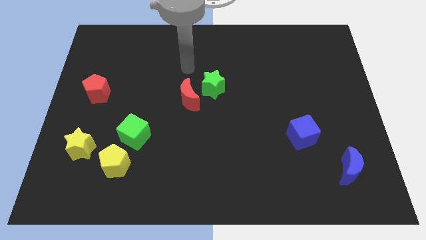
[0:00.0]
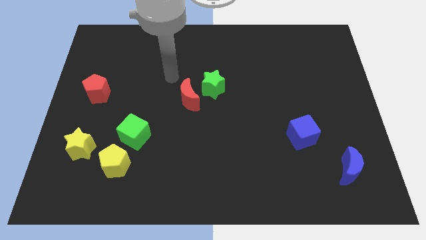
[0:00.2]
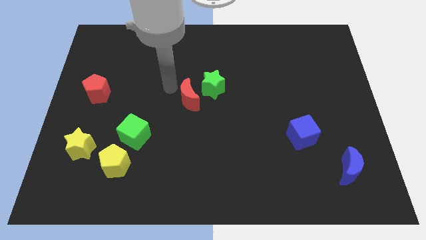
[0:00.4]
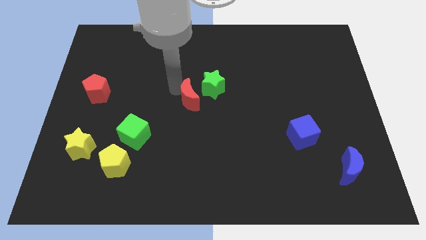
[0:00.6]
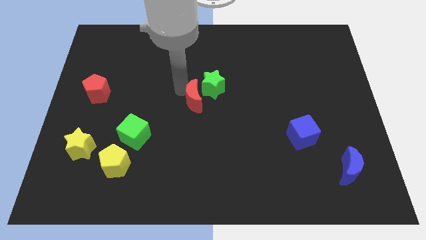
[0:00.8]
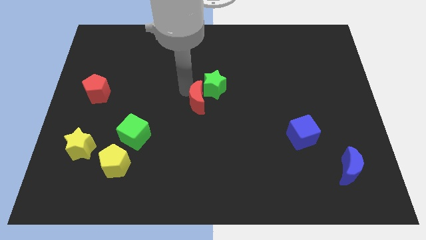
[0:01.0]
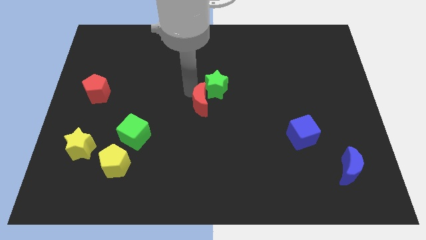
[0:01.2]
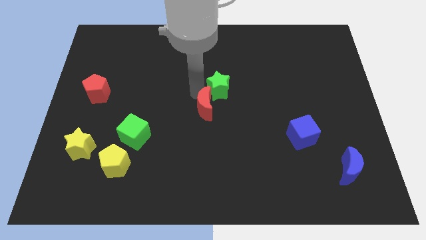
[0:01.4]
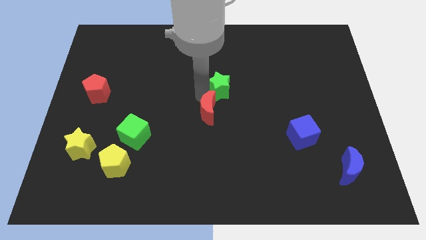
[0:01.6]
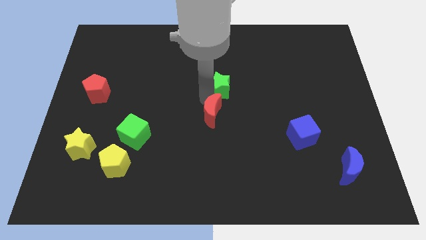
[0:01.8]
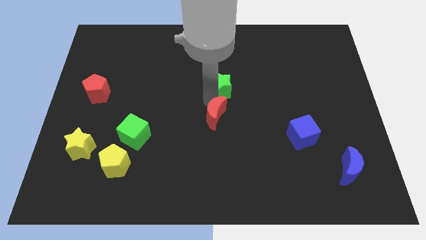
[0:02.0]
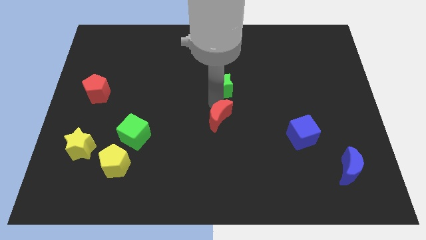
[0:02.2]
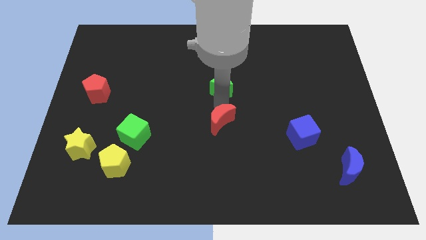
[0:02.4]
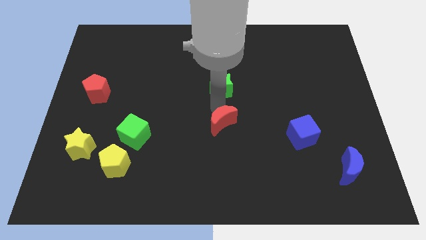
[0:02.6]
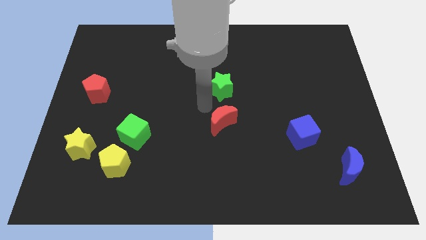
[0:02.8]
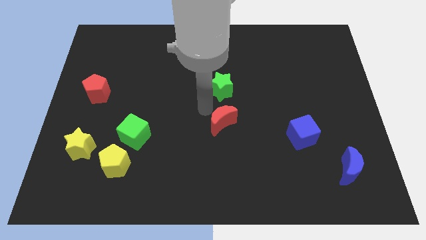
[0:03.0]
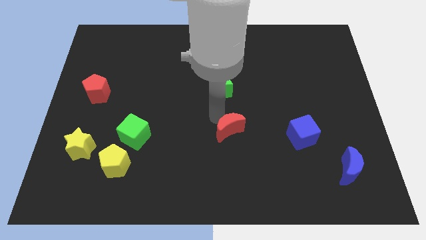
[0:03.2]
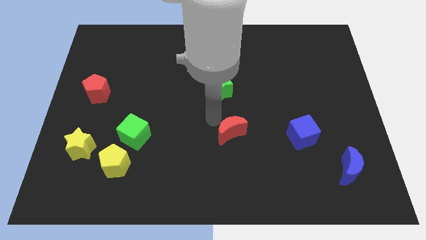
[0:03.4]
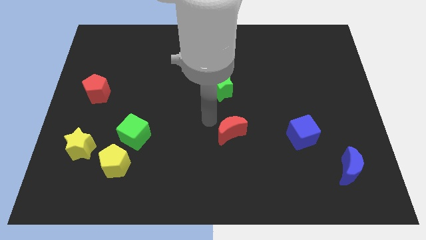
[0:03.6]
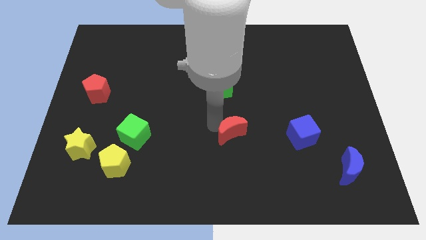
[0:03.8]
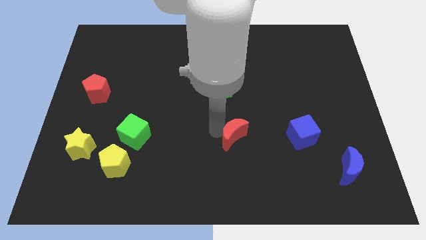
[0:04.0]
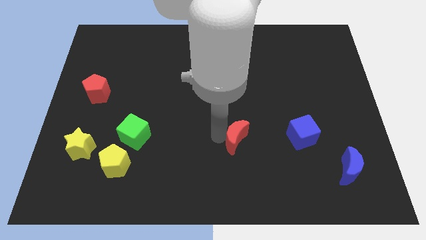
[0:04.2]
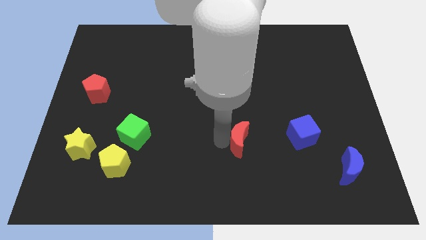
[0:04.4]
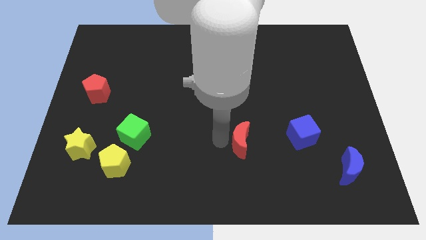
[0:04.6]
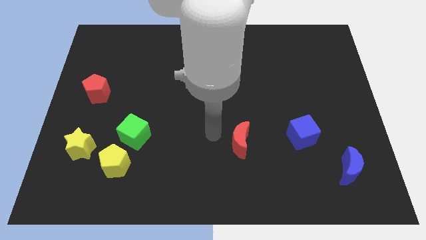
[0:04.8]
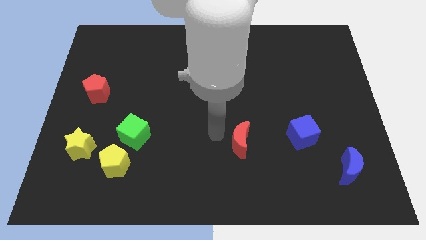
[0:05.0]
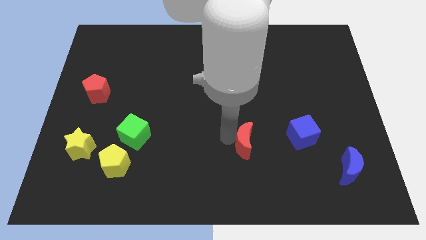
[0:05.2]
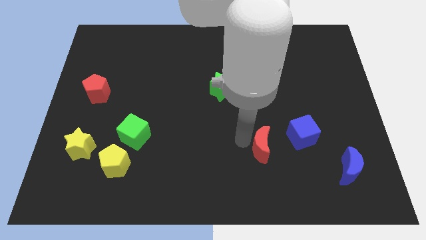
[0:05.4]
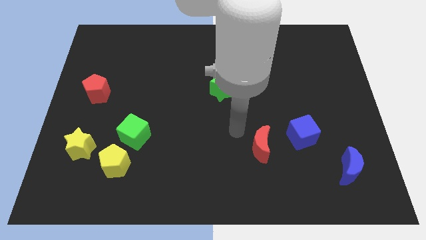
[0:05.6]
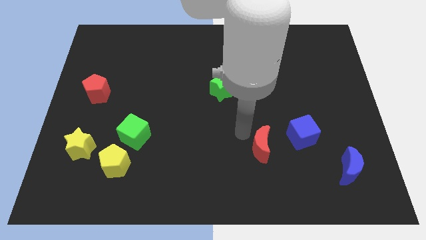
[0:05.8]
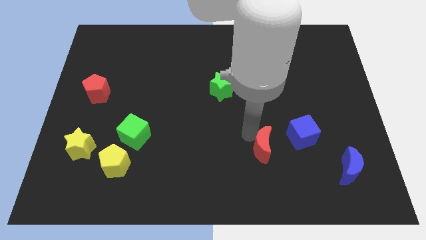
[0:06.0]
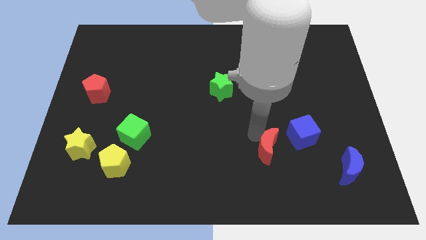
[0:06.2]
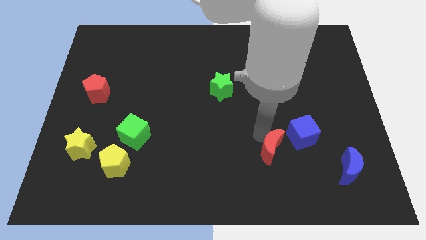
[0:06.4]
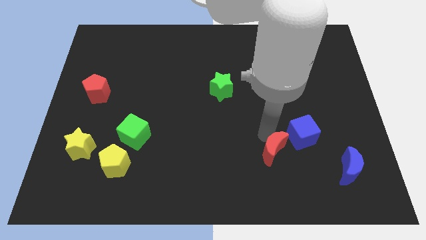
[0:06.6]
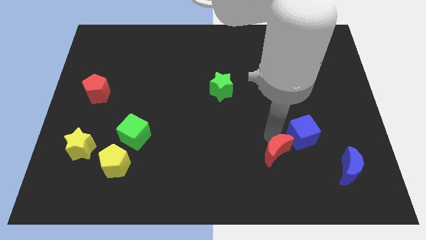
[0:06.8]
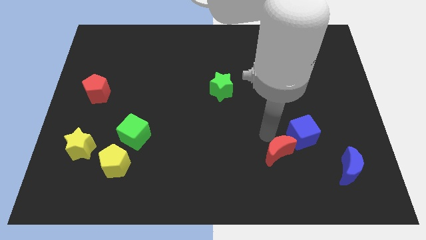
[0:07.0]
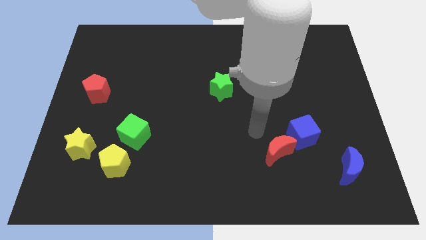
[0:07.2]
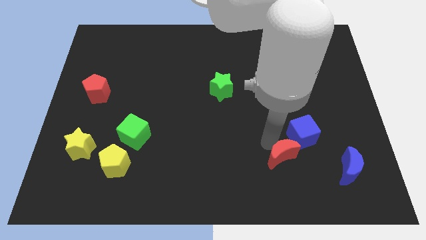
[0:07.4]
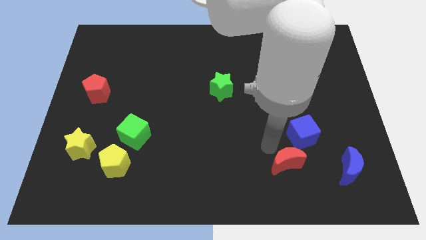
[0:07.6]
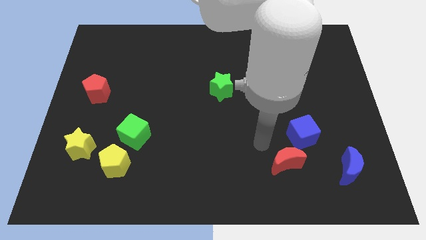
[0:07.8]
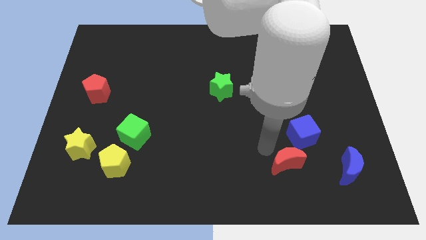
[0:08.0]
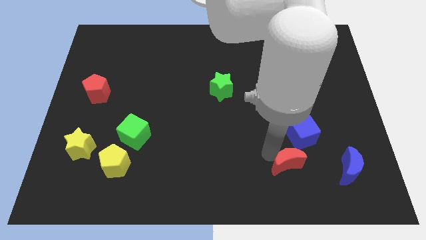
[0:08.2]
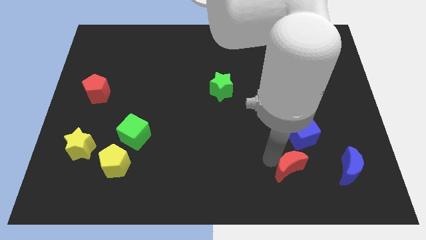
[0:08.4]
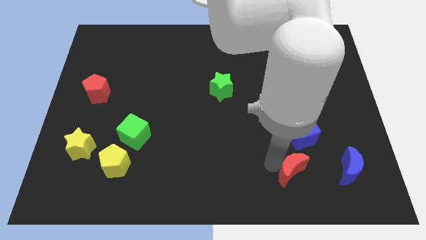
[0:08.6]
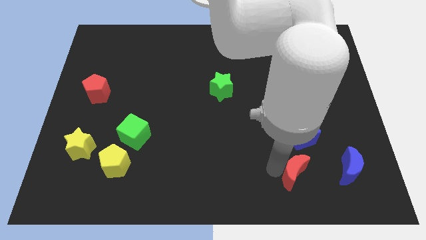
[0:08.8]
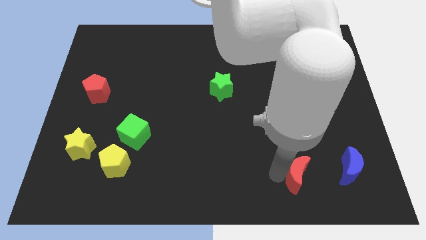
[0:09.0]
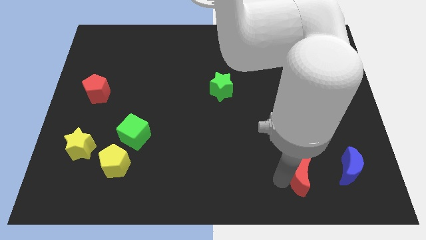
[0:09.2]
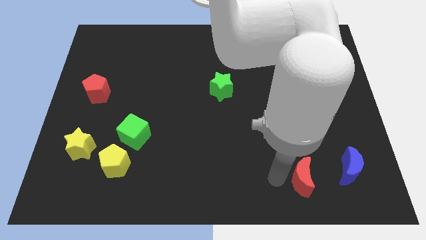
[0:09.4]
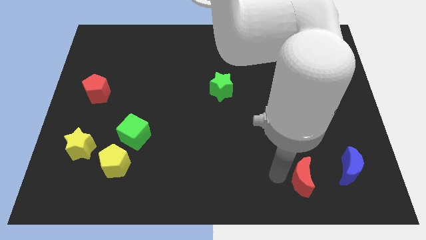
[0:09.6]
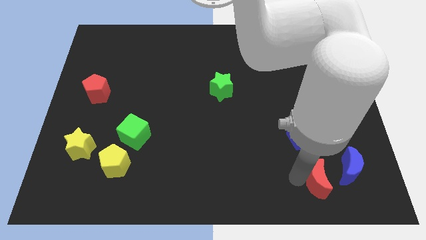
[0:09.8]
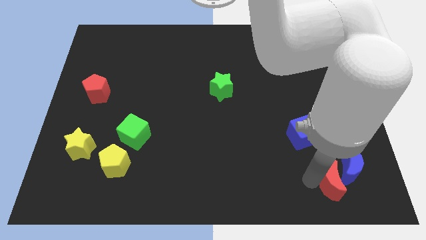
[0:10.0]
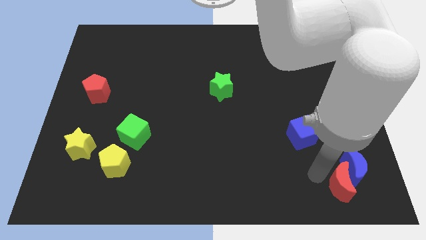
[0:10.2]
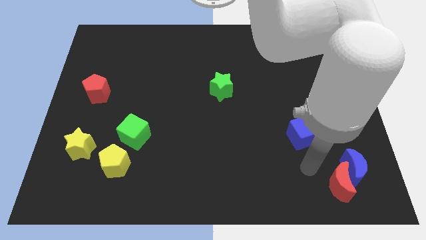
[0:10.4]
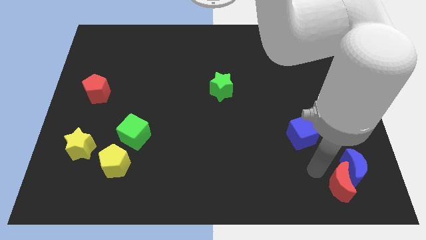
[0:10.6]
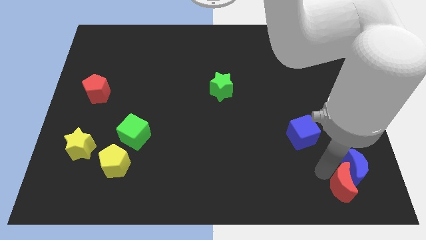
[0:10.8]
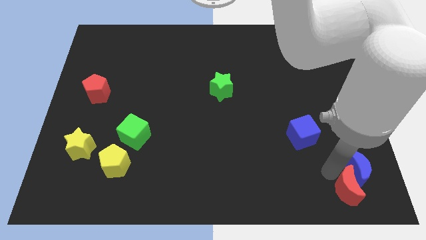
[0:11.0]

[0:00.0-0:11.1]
push the red moon to the bottom right corner
